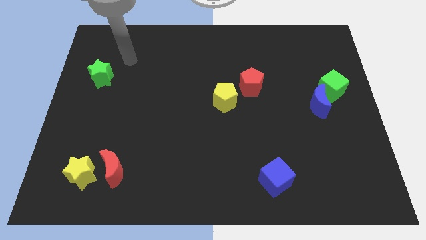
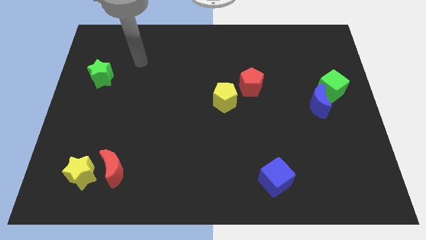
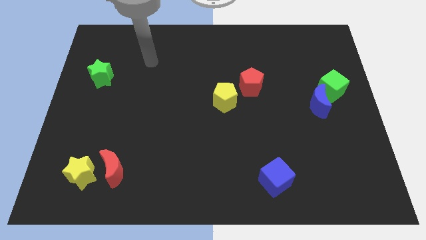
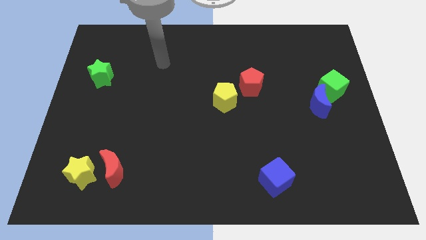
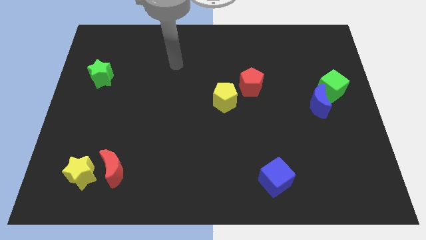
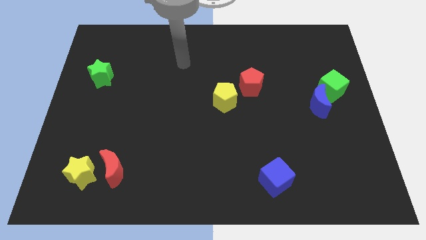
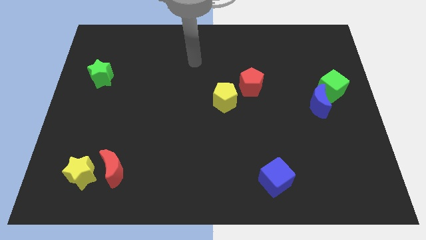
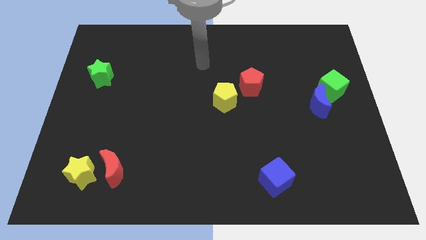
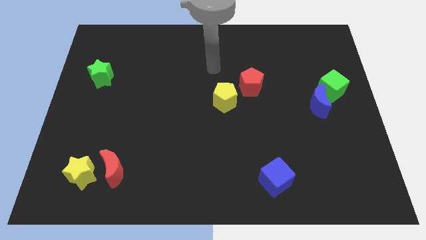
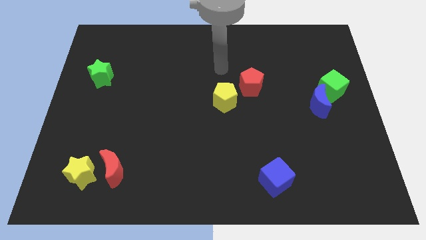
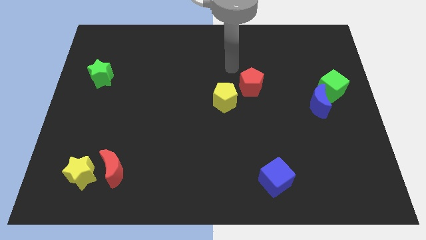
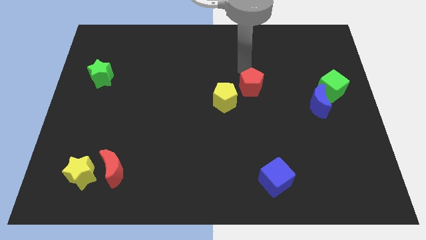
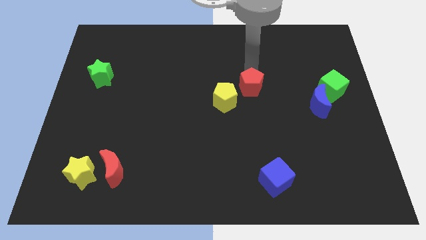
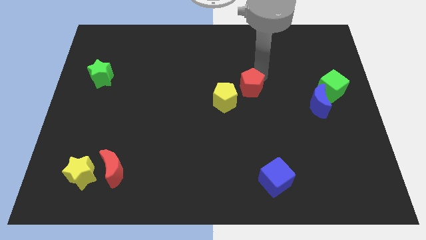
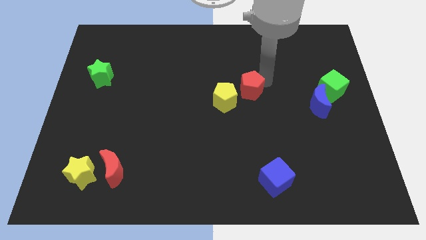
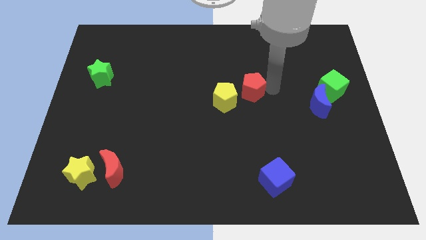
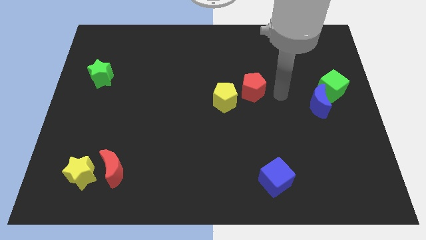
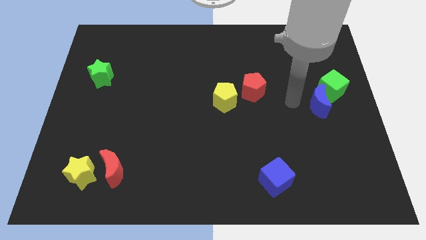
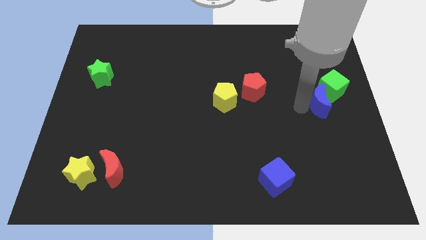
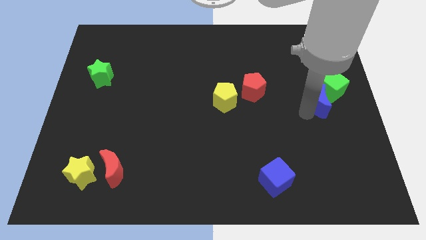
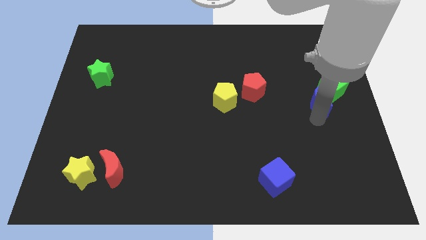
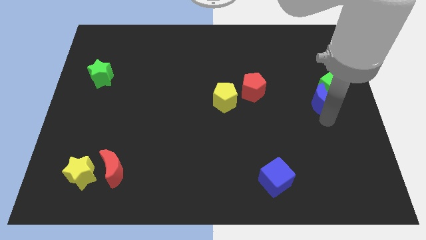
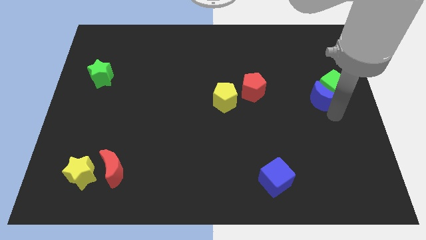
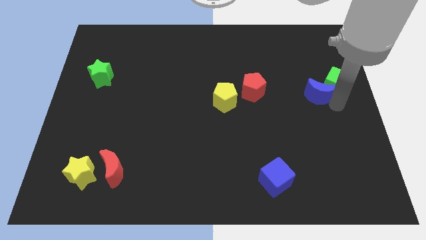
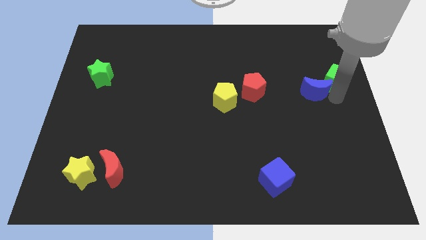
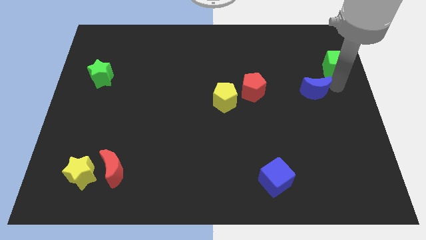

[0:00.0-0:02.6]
pull the blue moon apart from the green cube

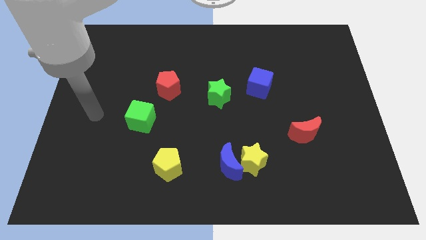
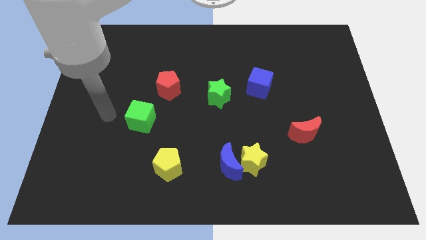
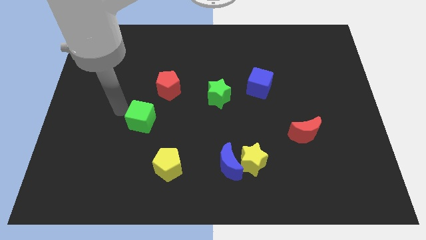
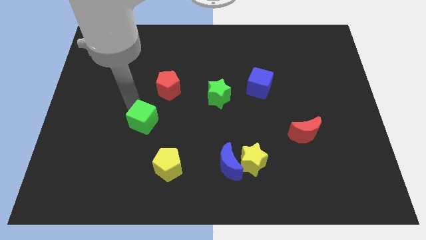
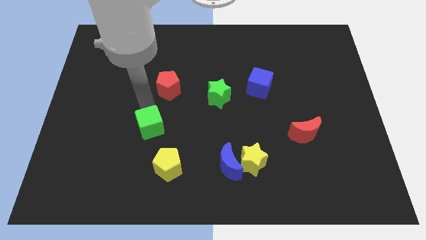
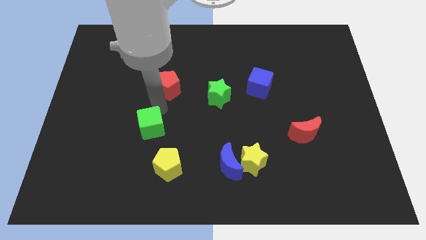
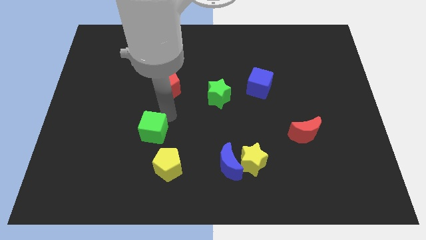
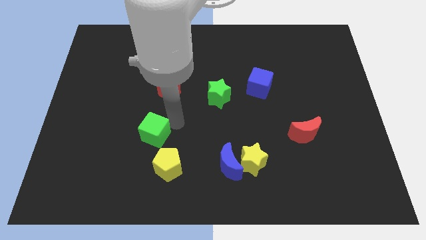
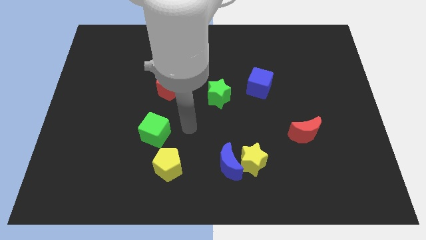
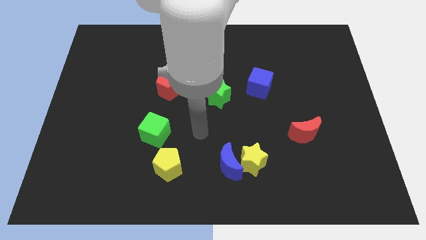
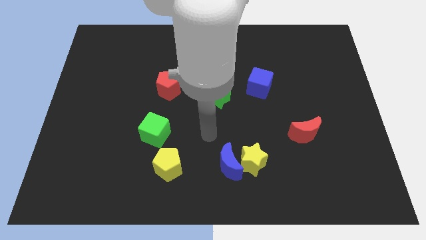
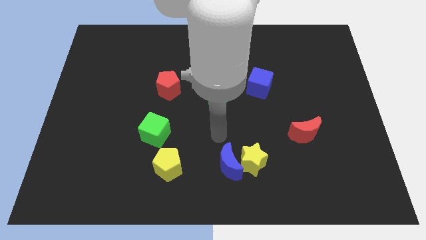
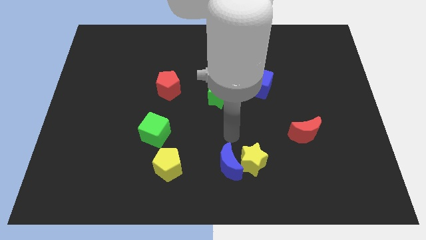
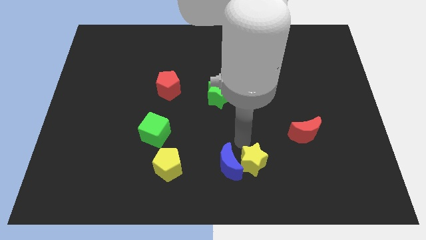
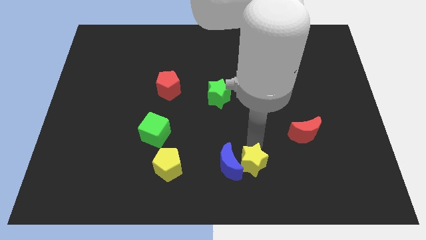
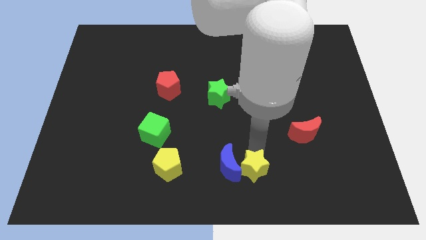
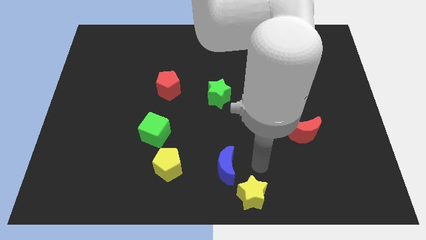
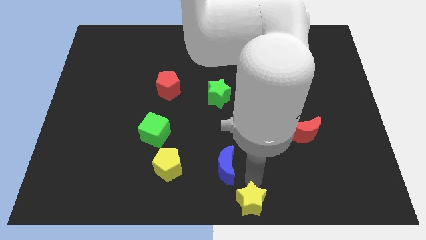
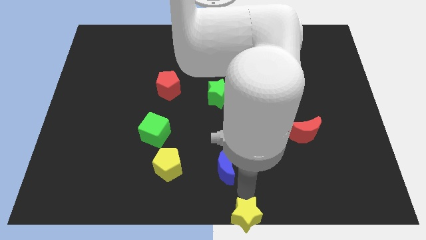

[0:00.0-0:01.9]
separate the blue moon from the yellow star

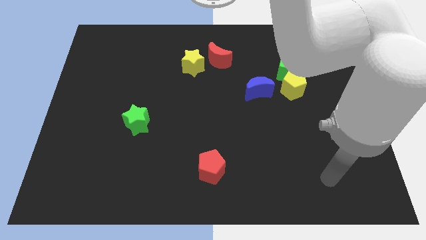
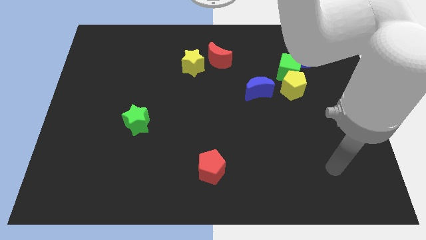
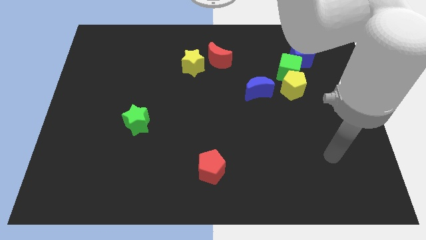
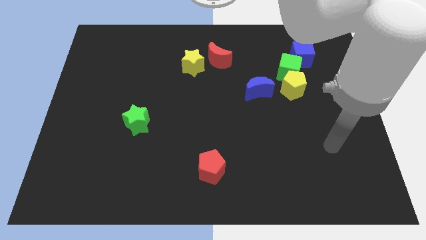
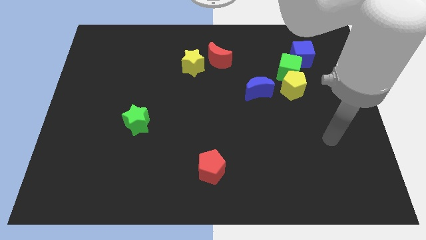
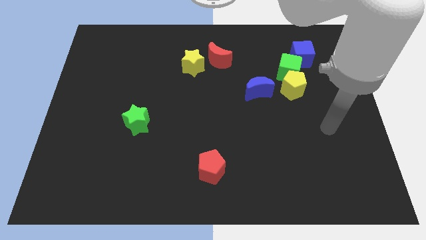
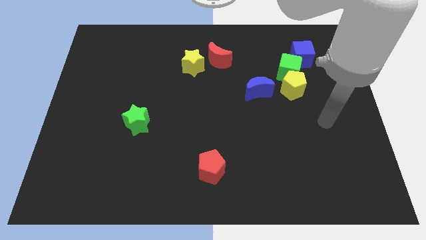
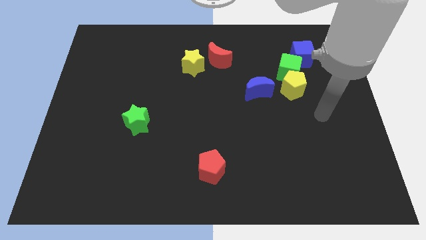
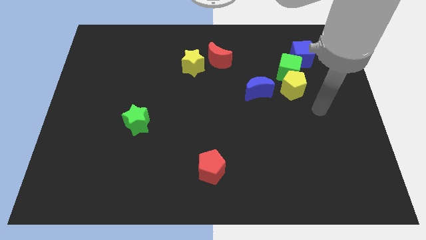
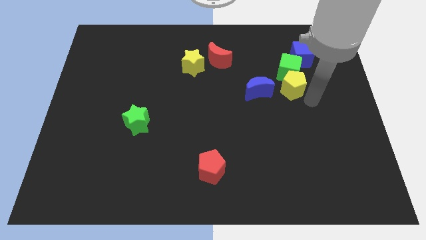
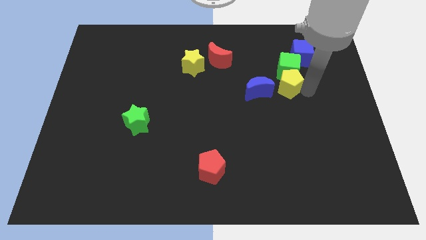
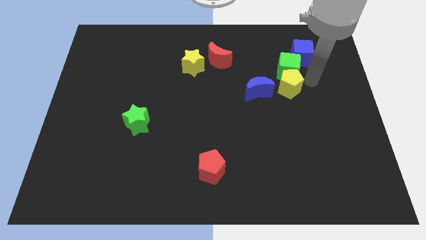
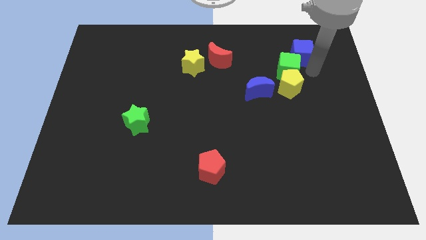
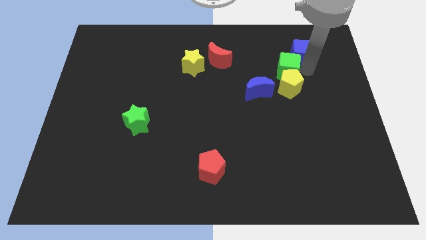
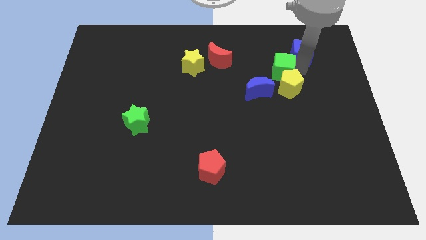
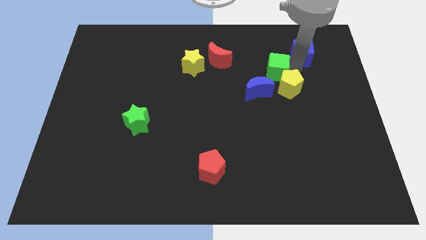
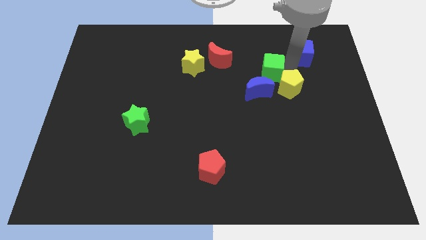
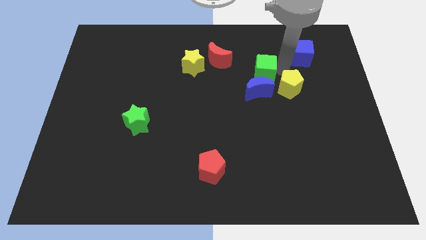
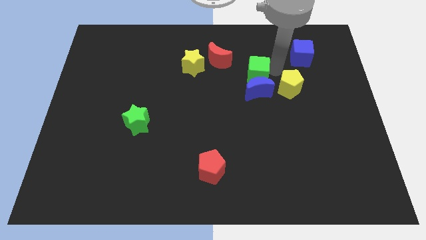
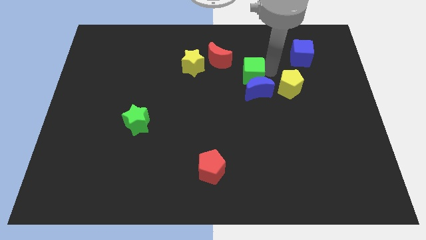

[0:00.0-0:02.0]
pull the green cube apart from the yellow pentagon and blue cube

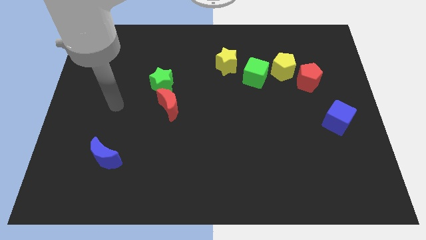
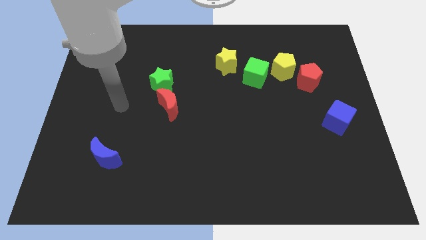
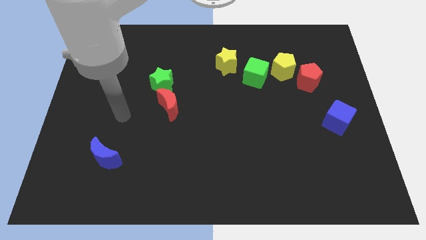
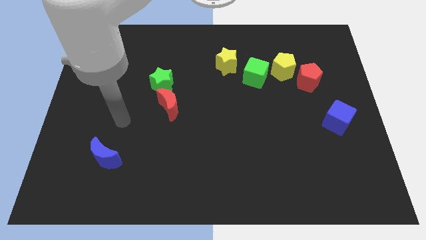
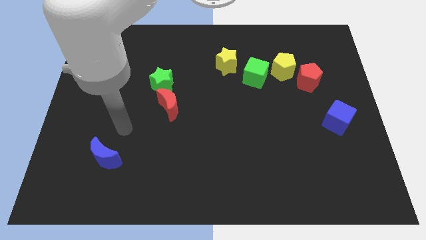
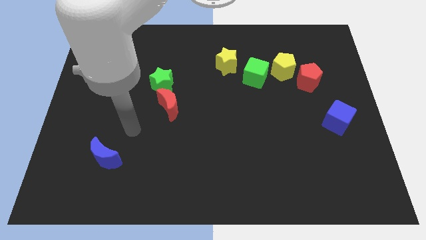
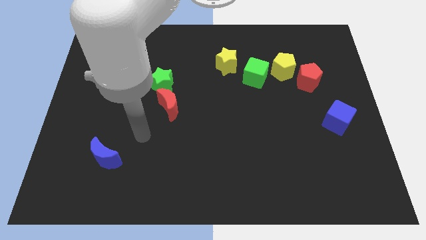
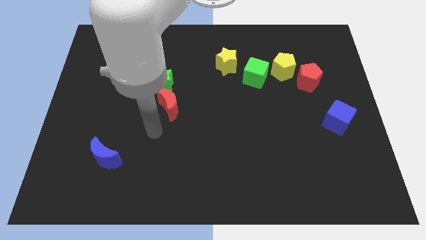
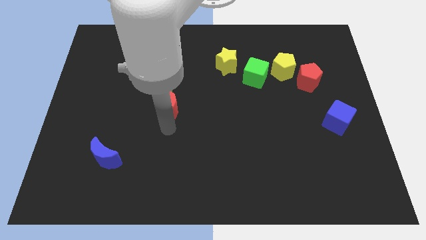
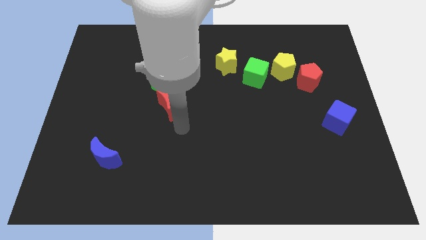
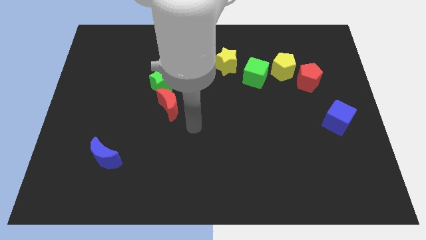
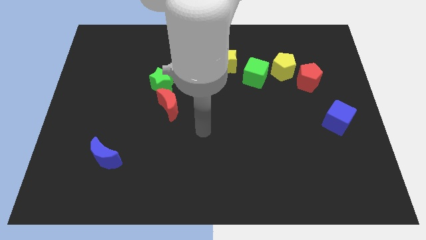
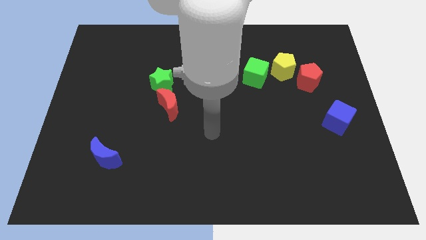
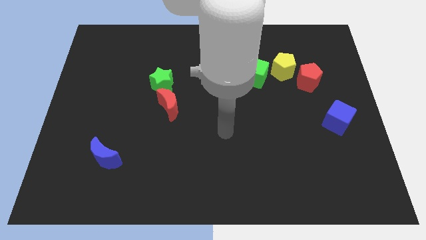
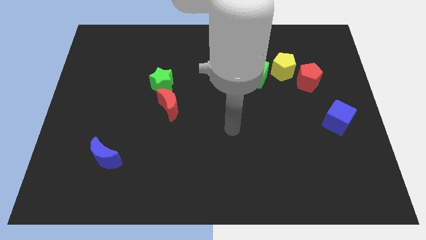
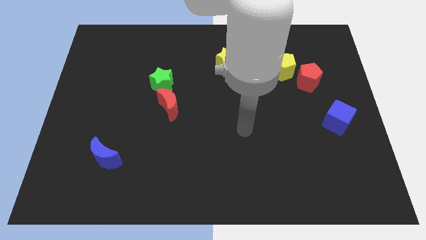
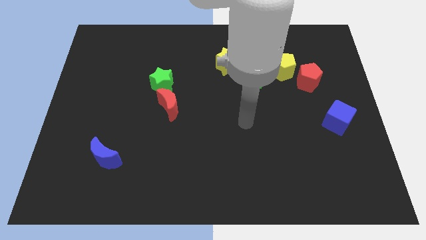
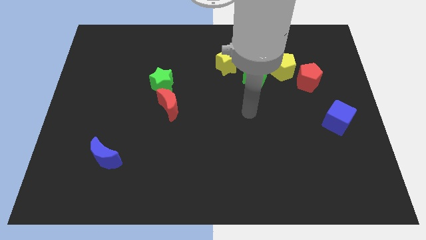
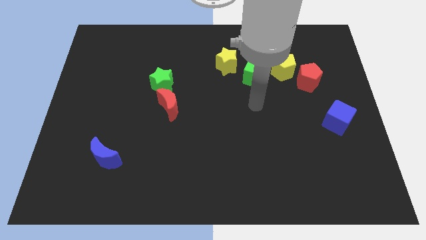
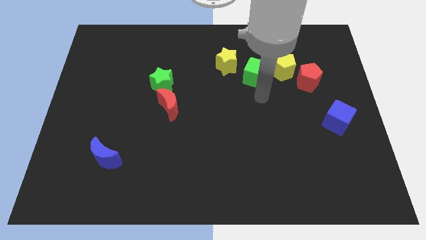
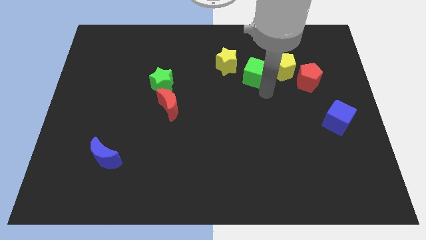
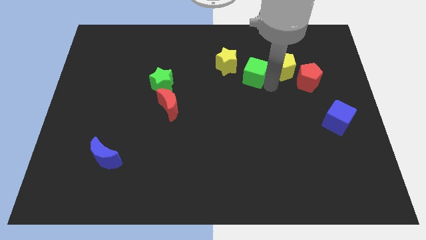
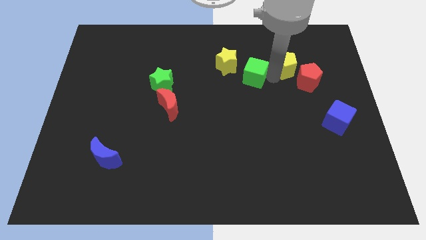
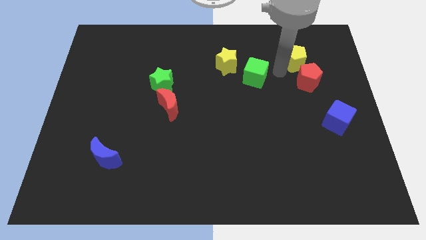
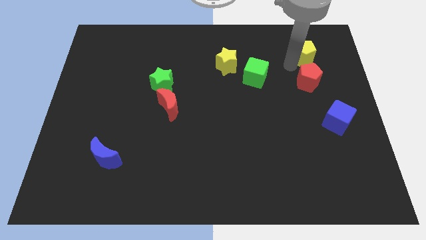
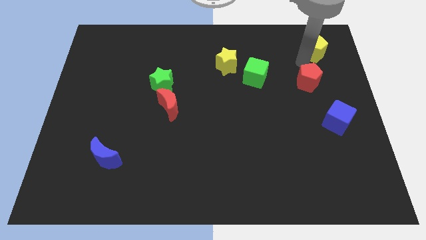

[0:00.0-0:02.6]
move the red pentagon away from the yellow pentagon

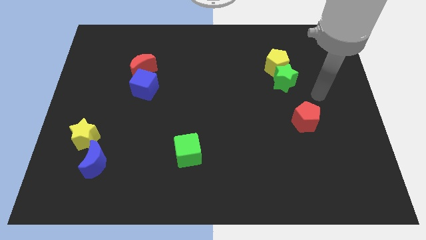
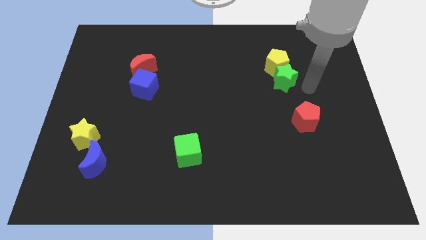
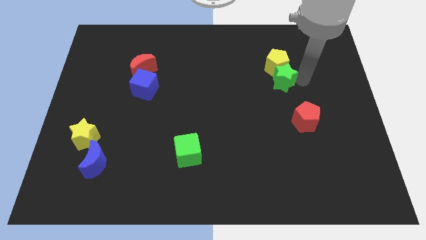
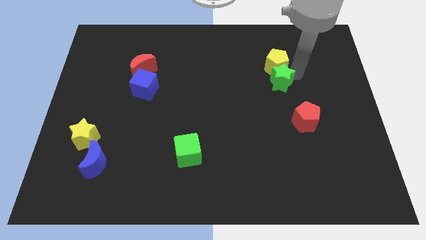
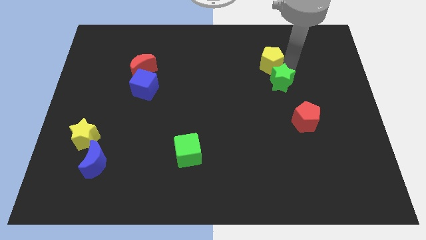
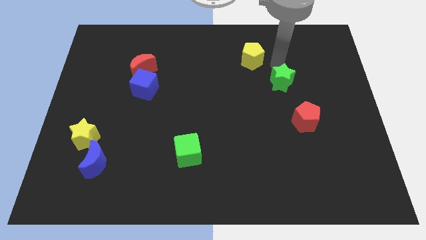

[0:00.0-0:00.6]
move the green star away from the yellow pentagon
